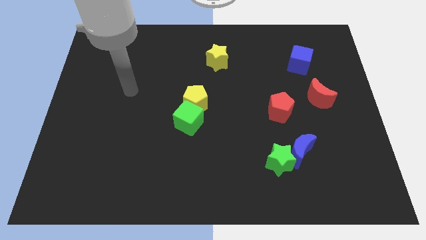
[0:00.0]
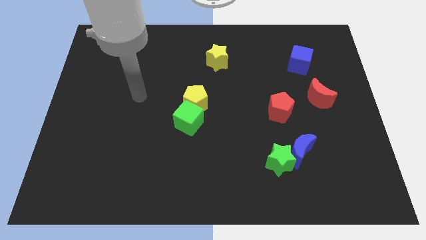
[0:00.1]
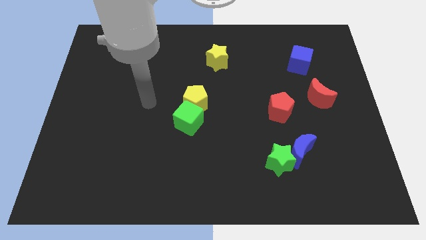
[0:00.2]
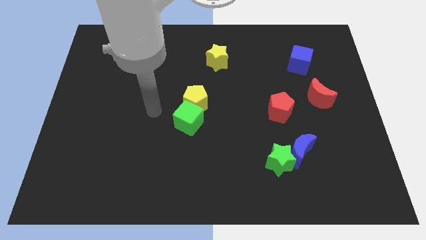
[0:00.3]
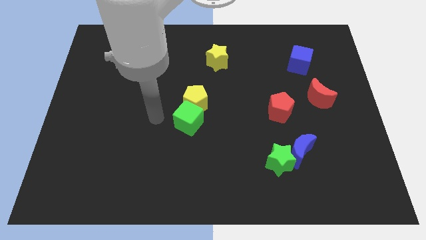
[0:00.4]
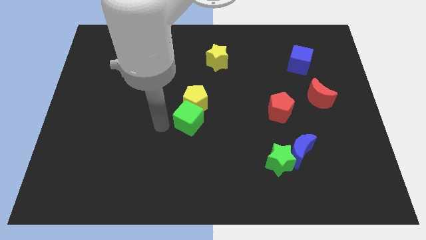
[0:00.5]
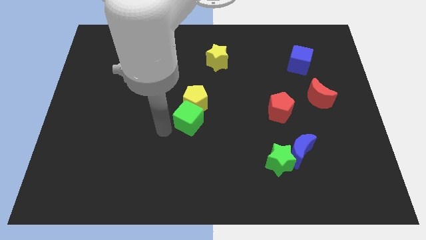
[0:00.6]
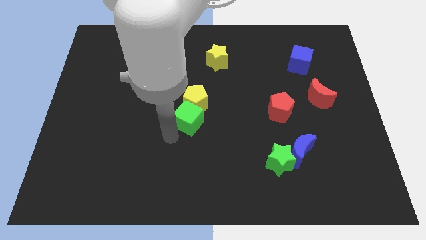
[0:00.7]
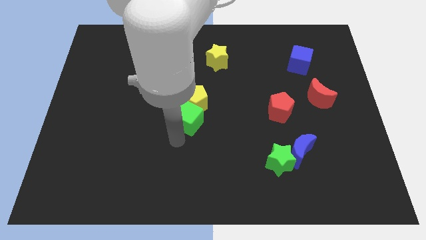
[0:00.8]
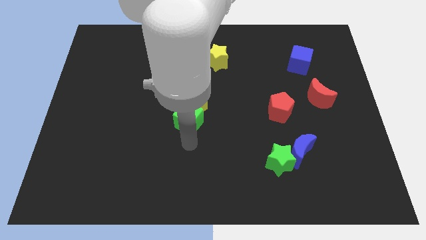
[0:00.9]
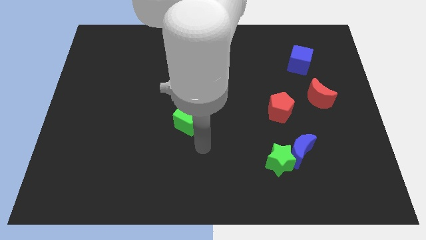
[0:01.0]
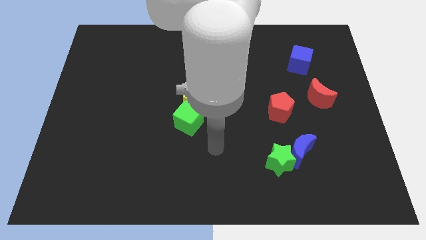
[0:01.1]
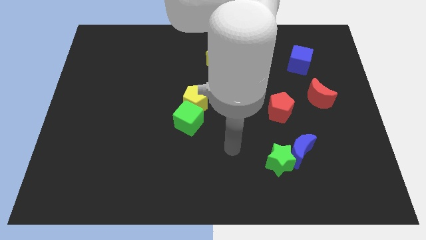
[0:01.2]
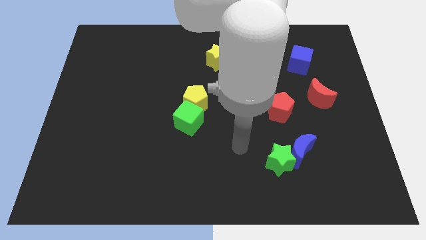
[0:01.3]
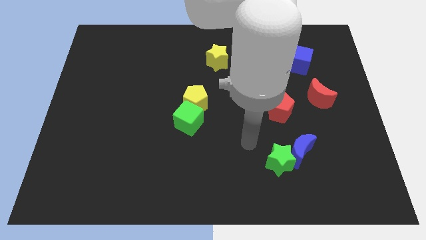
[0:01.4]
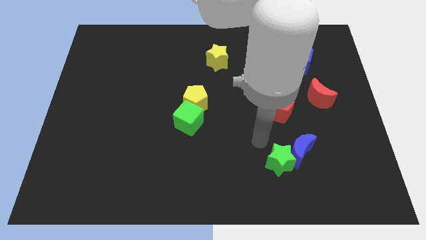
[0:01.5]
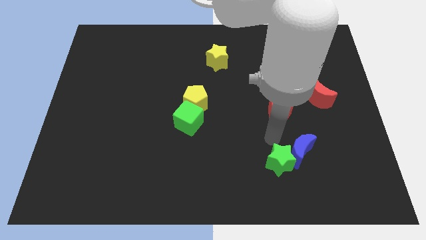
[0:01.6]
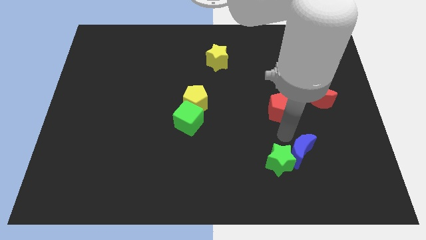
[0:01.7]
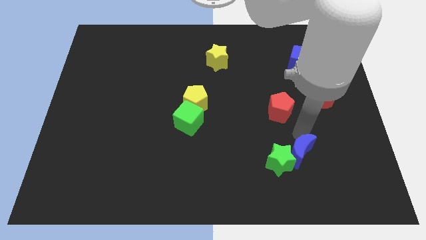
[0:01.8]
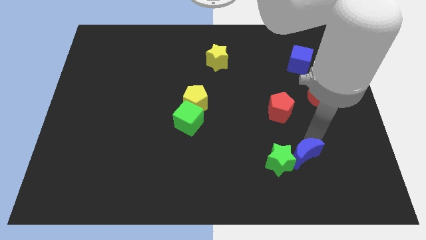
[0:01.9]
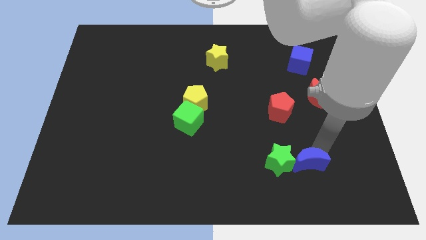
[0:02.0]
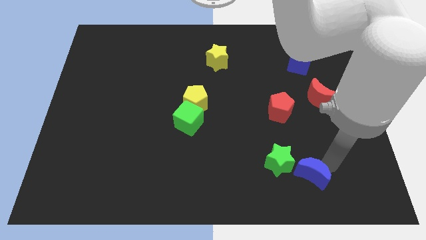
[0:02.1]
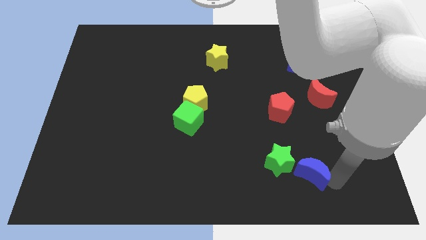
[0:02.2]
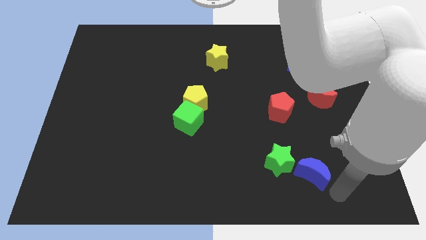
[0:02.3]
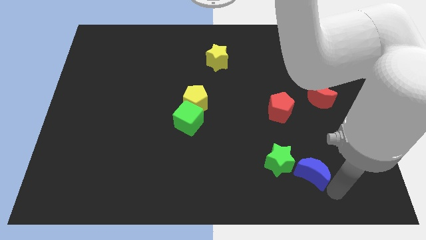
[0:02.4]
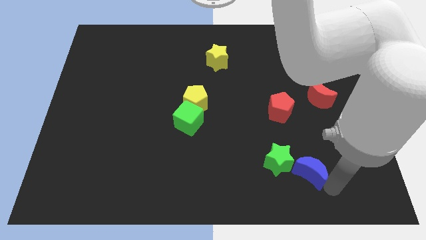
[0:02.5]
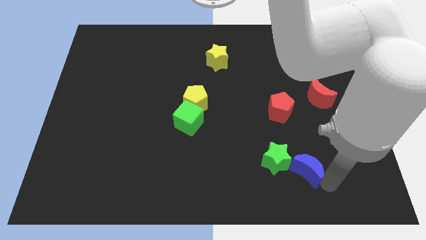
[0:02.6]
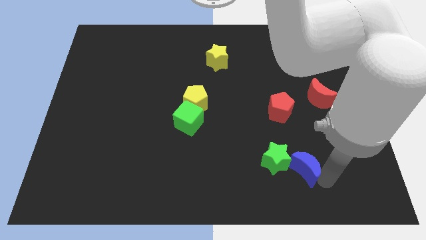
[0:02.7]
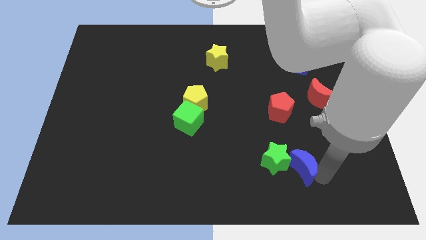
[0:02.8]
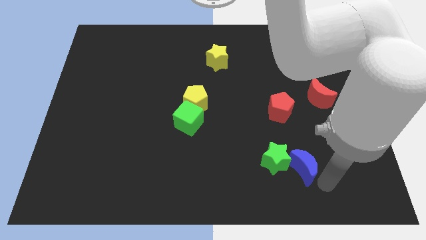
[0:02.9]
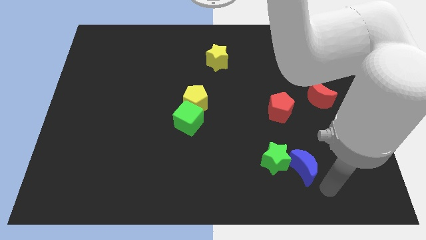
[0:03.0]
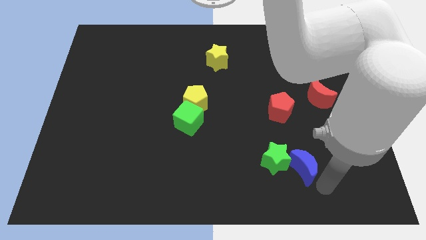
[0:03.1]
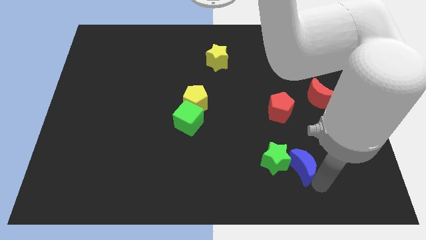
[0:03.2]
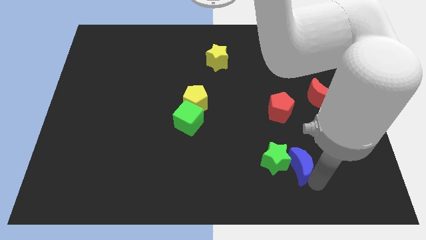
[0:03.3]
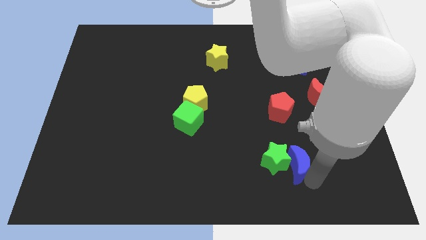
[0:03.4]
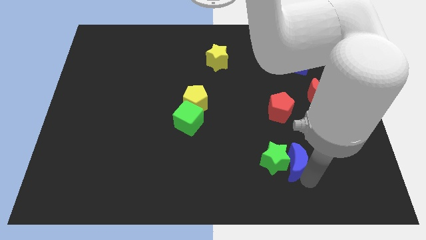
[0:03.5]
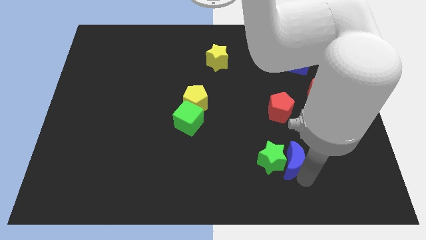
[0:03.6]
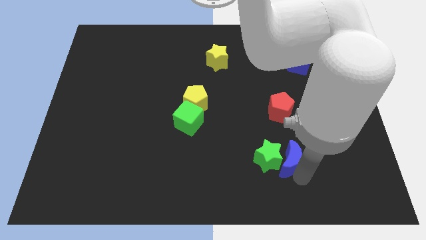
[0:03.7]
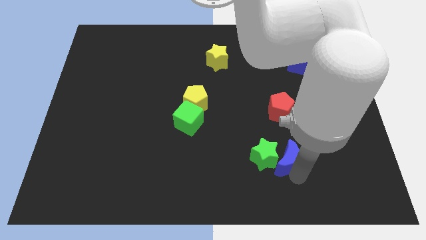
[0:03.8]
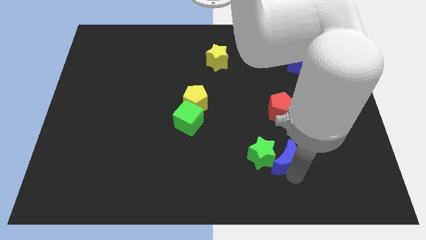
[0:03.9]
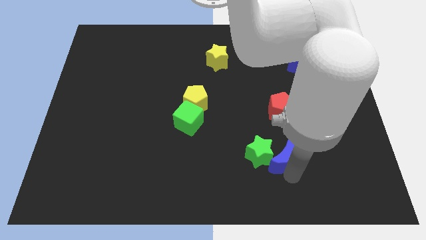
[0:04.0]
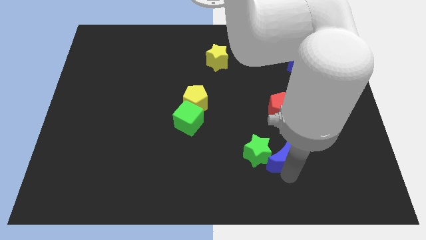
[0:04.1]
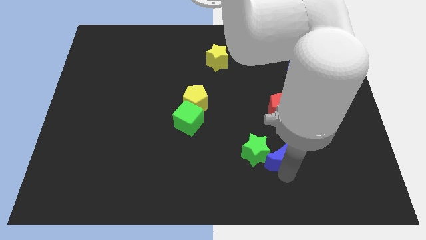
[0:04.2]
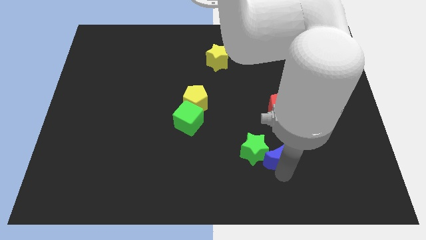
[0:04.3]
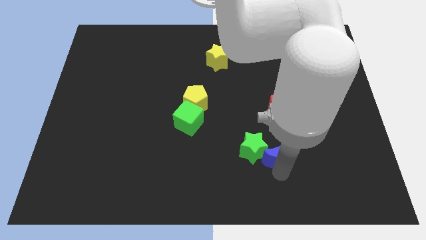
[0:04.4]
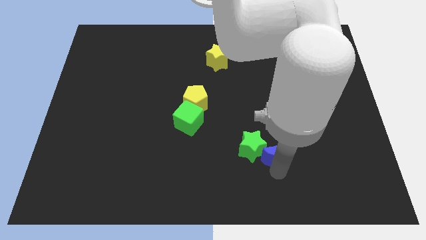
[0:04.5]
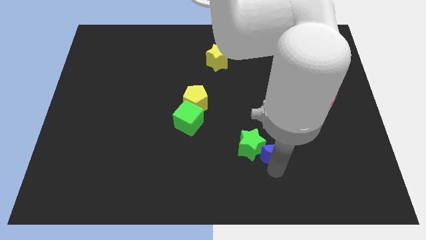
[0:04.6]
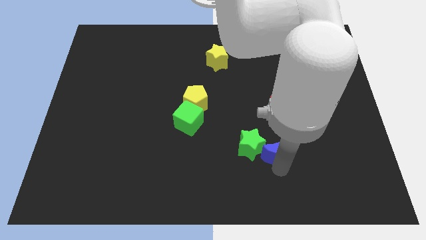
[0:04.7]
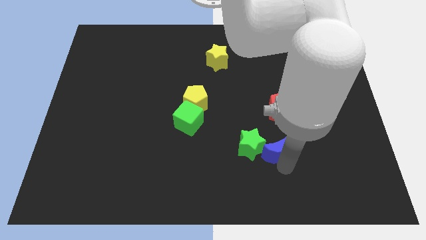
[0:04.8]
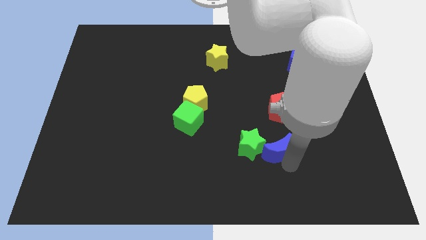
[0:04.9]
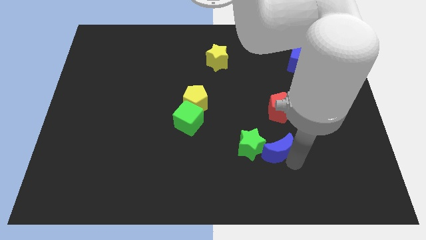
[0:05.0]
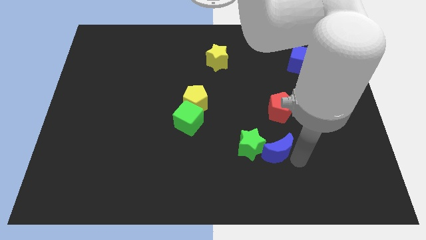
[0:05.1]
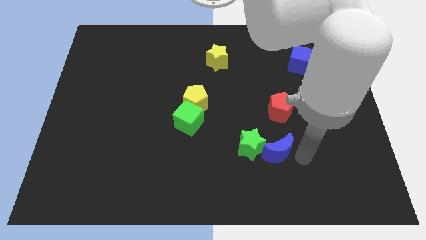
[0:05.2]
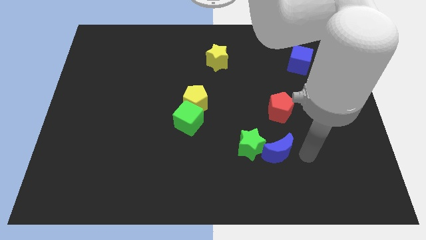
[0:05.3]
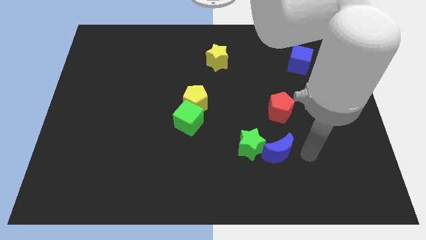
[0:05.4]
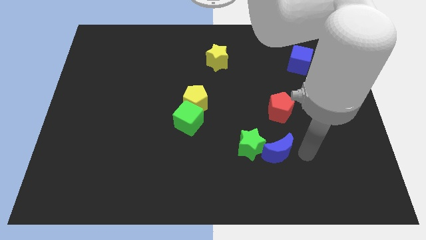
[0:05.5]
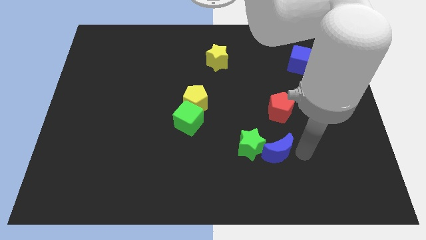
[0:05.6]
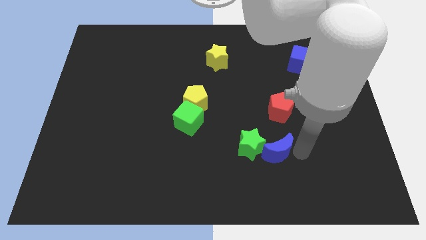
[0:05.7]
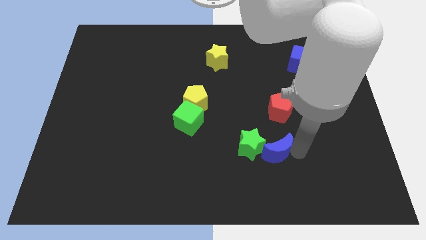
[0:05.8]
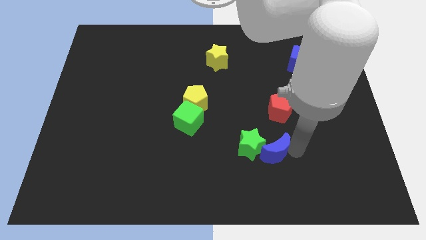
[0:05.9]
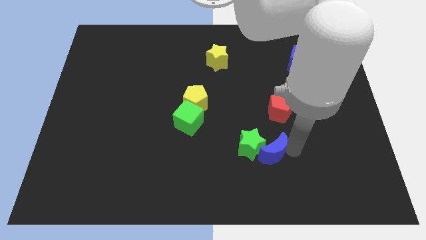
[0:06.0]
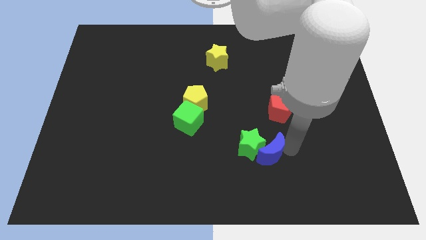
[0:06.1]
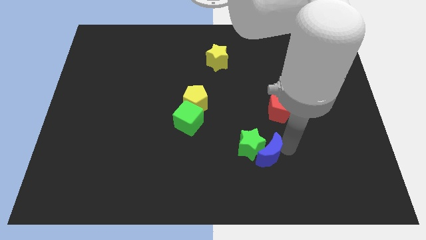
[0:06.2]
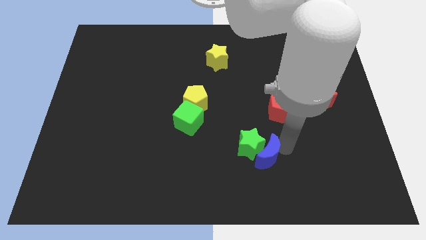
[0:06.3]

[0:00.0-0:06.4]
slightly slide the blue moon left

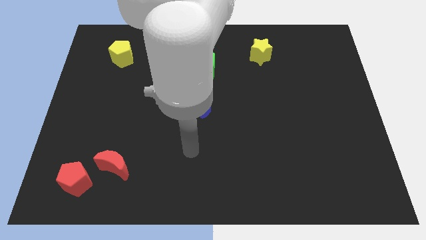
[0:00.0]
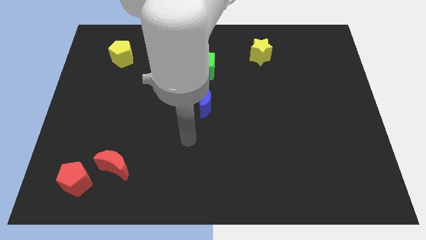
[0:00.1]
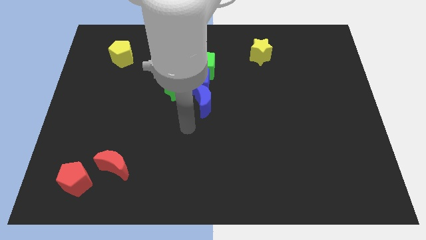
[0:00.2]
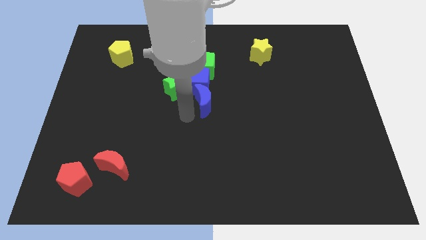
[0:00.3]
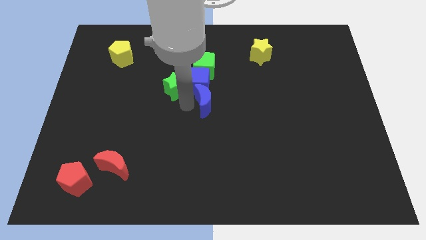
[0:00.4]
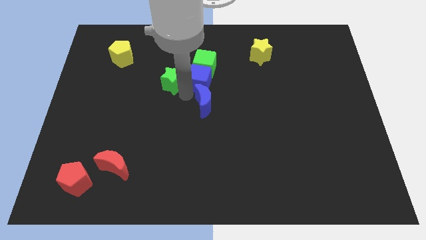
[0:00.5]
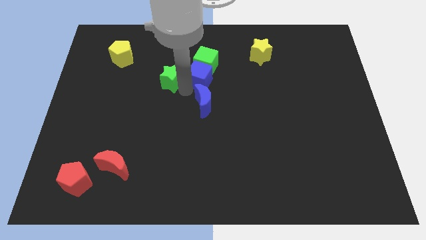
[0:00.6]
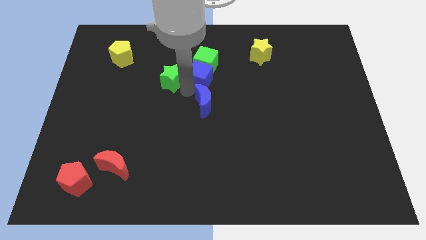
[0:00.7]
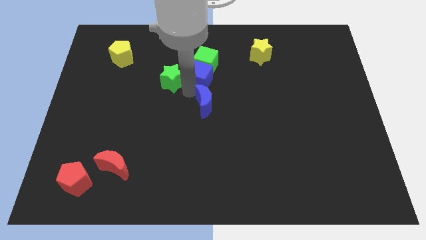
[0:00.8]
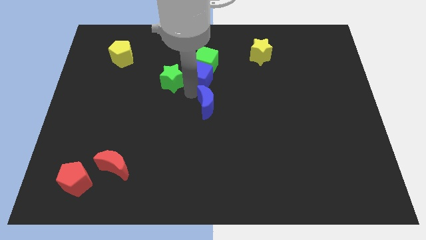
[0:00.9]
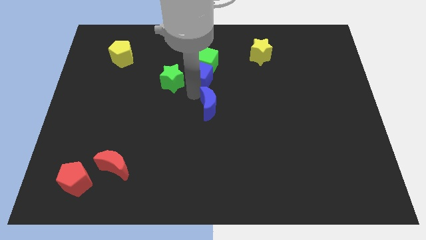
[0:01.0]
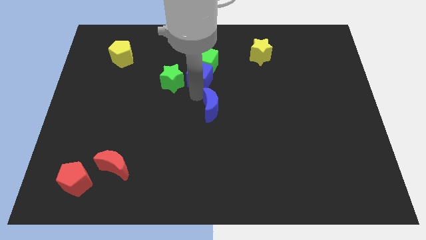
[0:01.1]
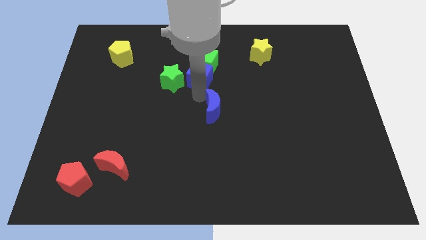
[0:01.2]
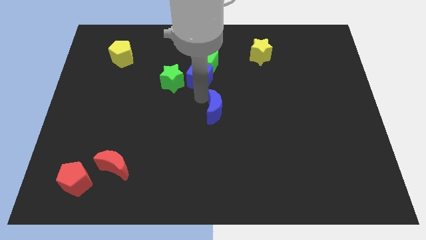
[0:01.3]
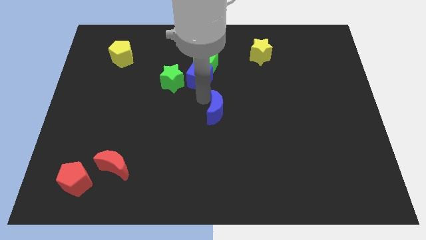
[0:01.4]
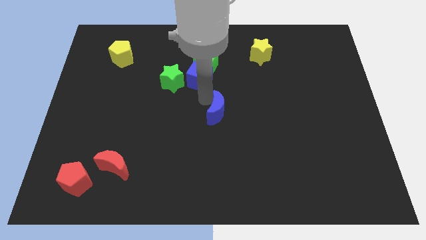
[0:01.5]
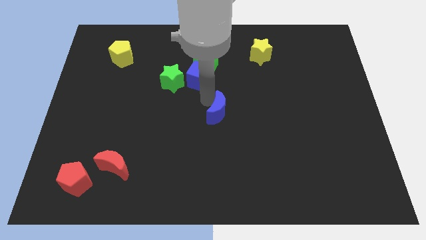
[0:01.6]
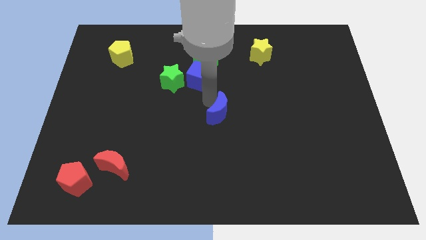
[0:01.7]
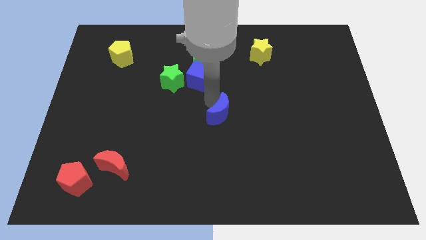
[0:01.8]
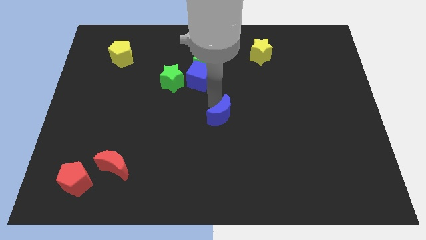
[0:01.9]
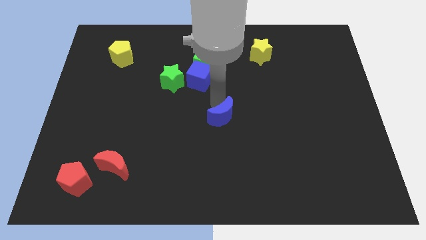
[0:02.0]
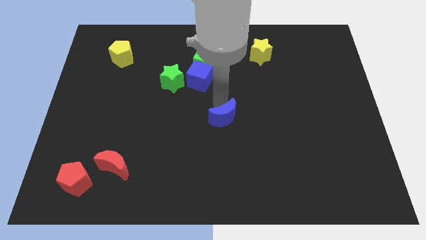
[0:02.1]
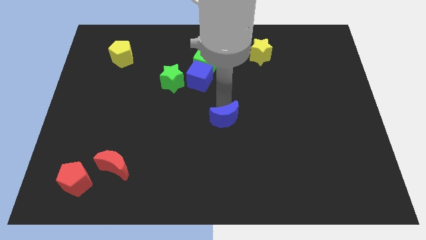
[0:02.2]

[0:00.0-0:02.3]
slide the blue moon a little downwards and right
